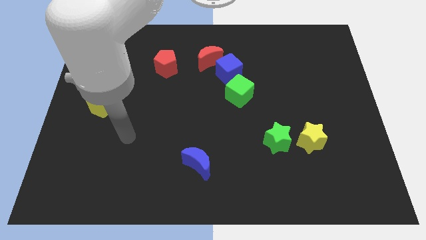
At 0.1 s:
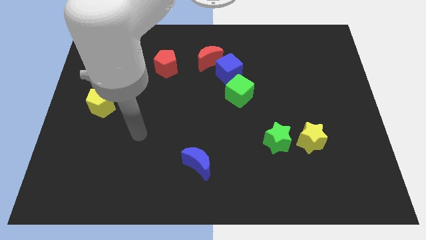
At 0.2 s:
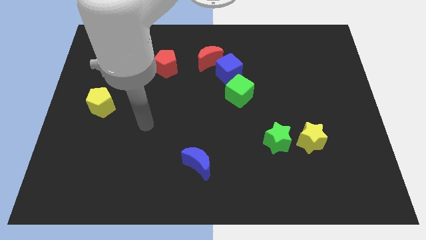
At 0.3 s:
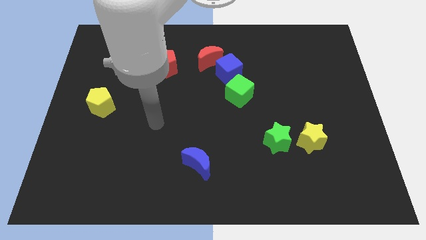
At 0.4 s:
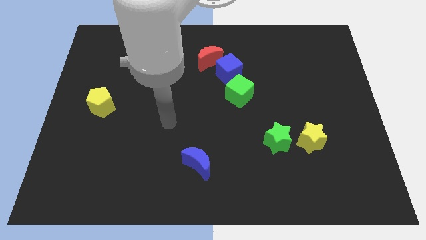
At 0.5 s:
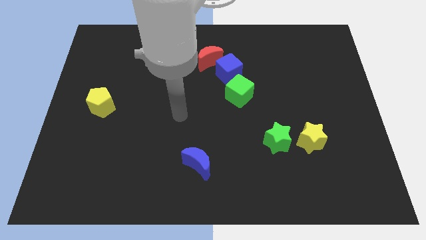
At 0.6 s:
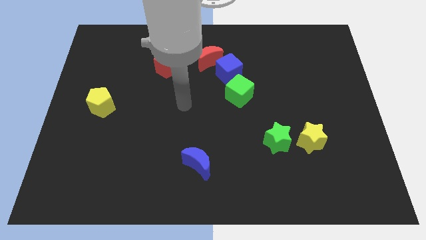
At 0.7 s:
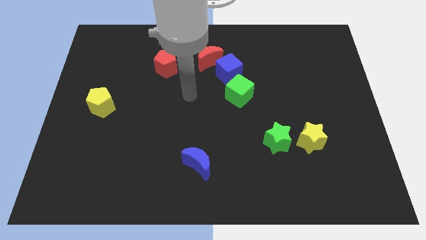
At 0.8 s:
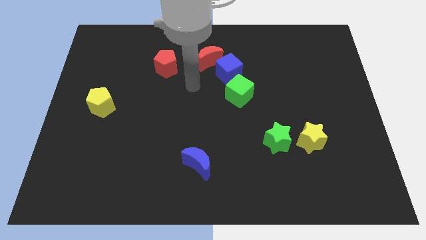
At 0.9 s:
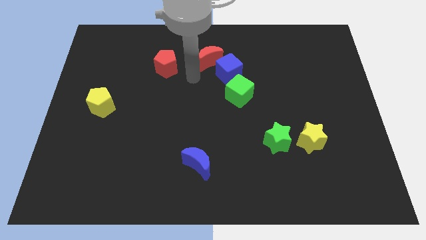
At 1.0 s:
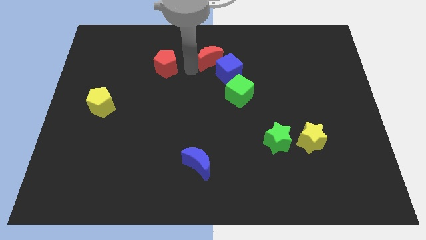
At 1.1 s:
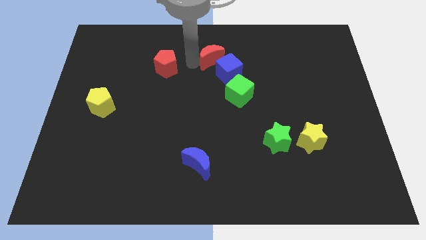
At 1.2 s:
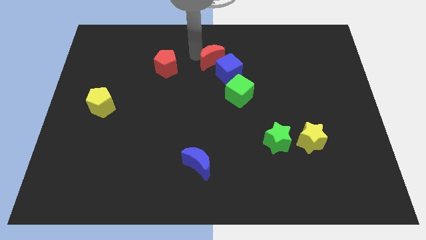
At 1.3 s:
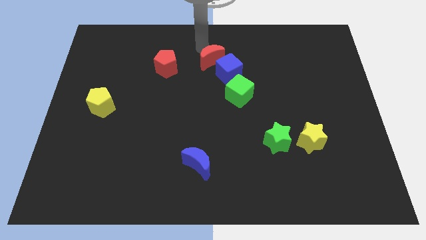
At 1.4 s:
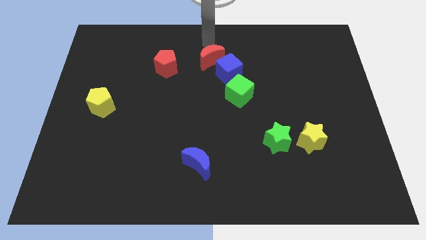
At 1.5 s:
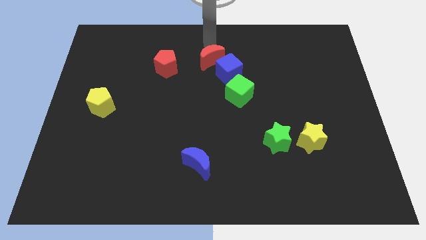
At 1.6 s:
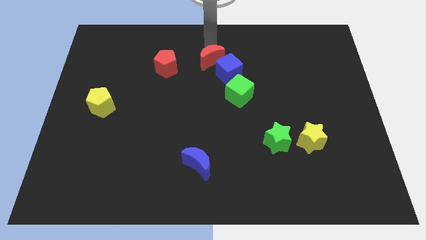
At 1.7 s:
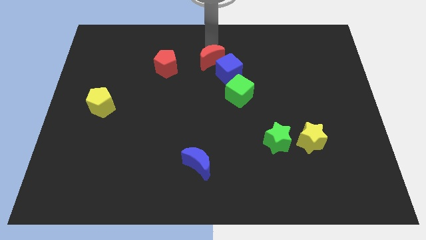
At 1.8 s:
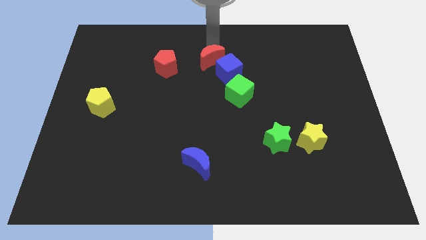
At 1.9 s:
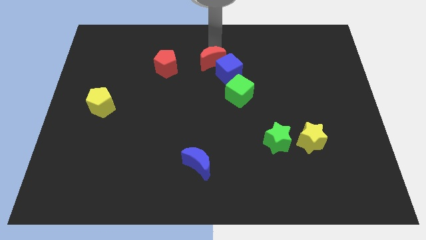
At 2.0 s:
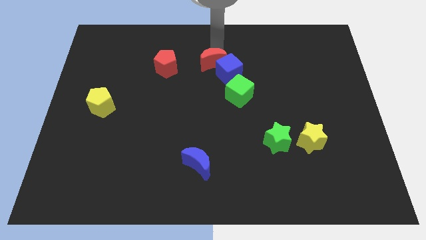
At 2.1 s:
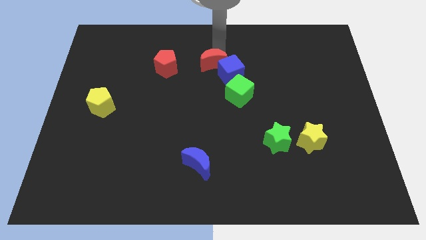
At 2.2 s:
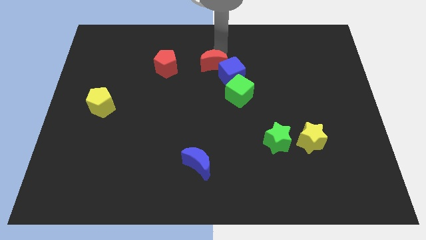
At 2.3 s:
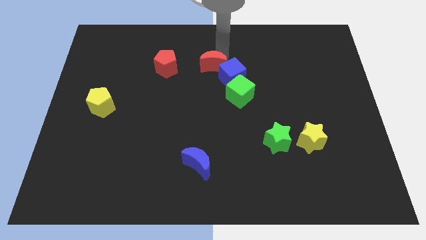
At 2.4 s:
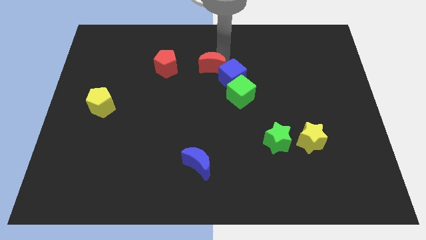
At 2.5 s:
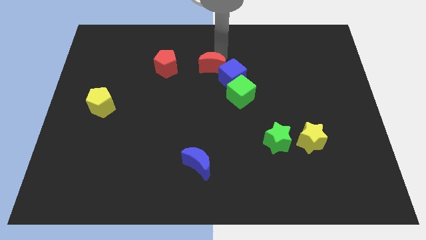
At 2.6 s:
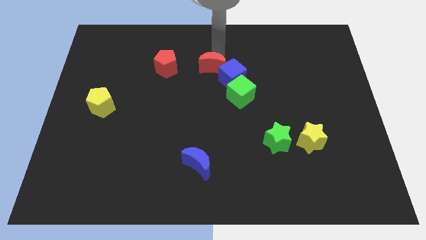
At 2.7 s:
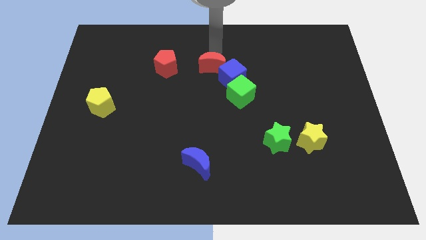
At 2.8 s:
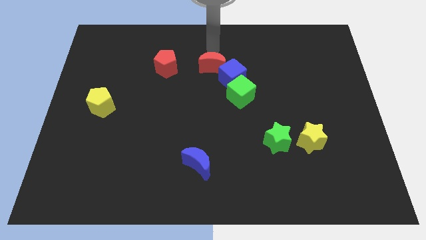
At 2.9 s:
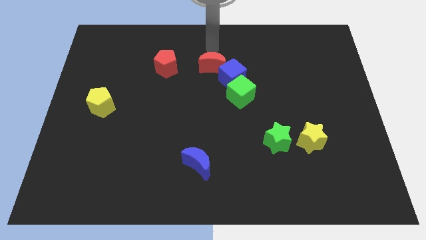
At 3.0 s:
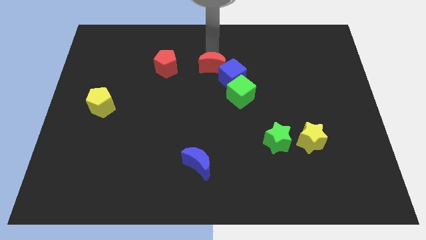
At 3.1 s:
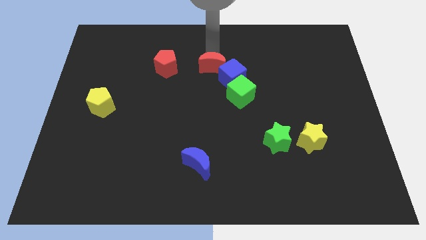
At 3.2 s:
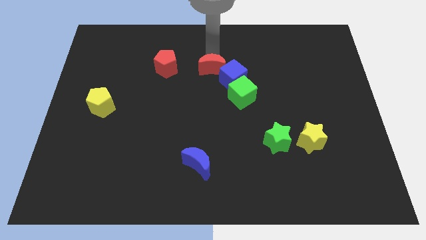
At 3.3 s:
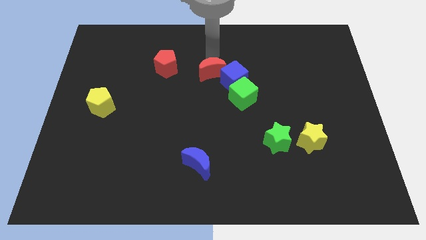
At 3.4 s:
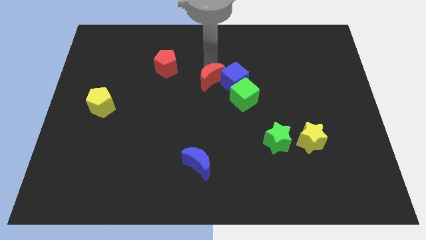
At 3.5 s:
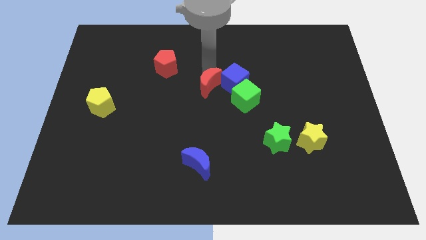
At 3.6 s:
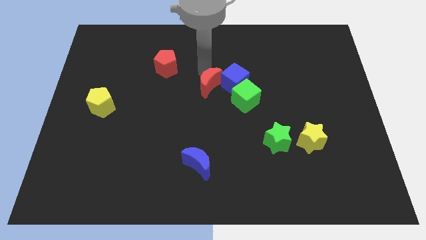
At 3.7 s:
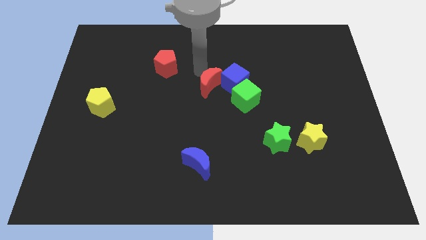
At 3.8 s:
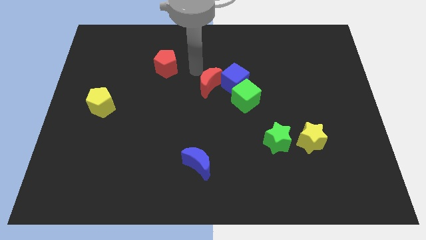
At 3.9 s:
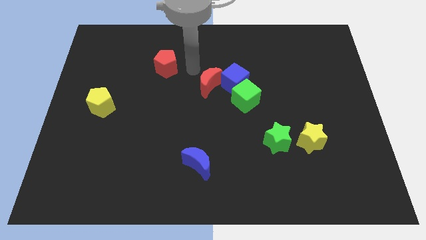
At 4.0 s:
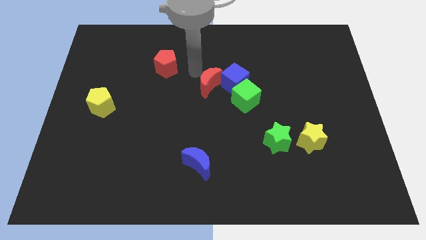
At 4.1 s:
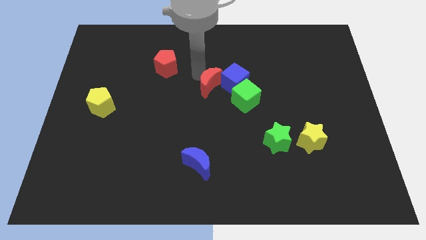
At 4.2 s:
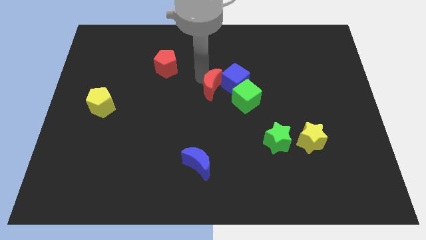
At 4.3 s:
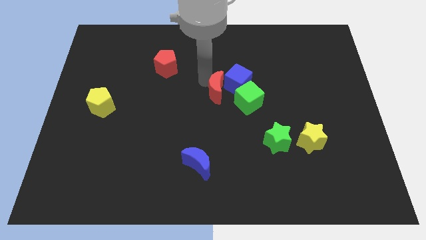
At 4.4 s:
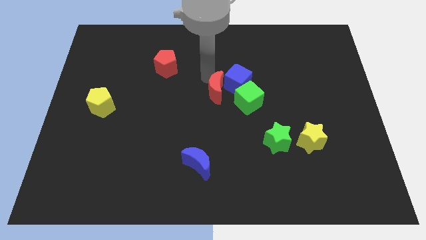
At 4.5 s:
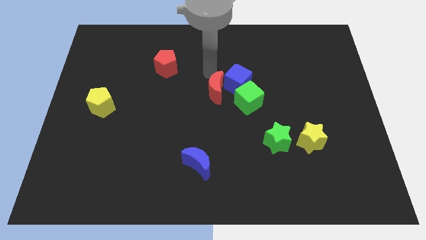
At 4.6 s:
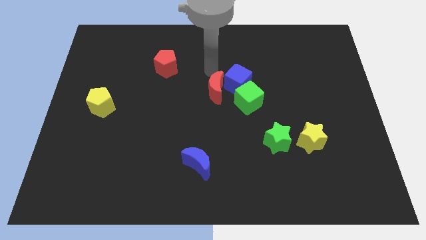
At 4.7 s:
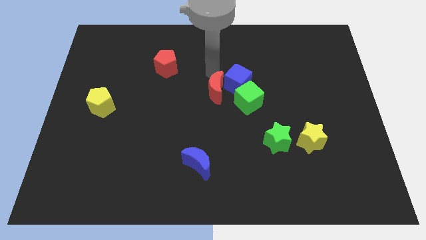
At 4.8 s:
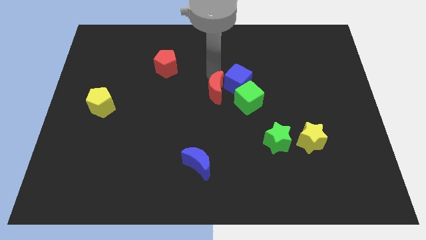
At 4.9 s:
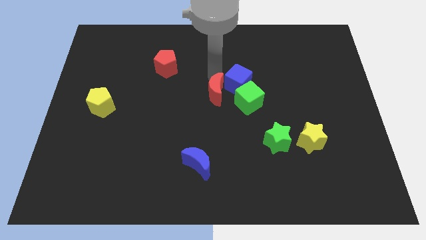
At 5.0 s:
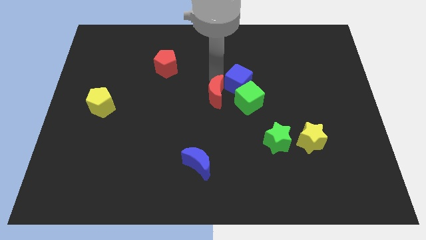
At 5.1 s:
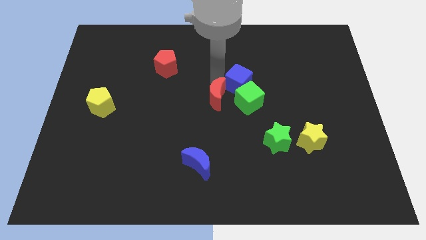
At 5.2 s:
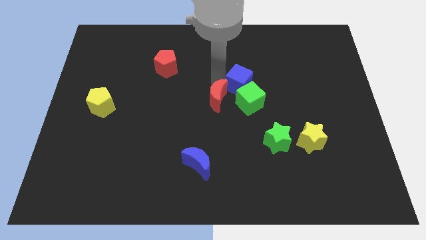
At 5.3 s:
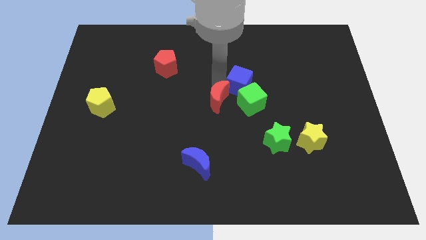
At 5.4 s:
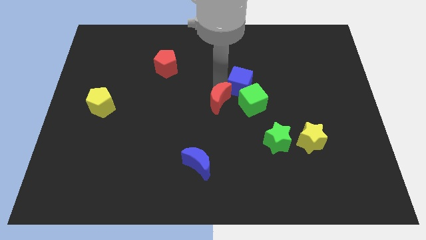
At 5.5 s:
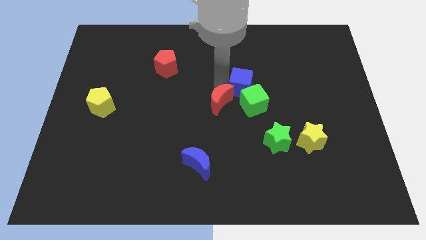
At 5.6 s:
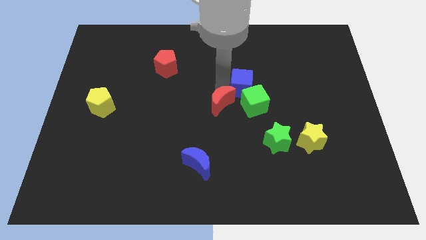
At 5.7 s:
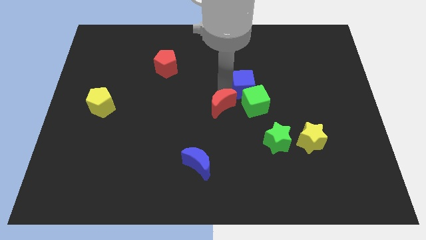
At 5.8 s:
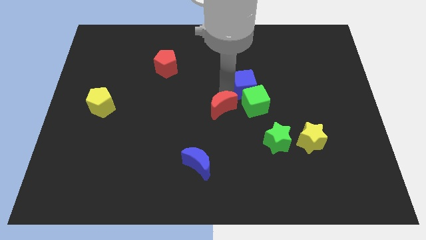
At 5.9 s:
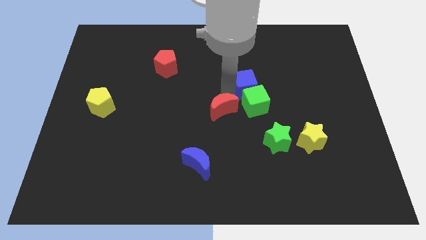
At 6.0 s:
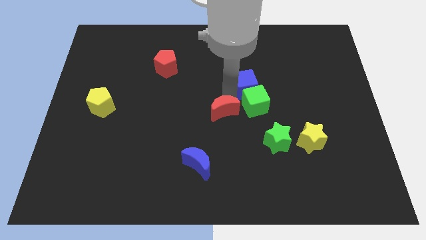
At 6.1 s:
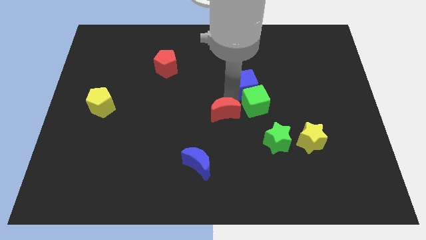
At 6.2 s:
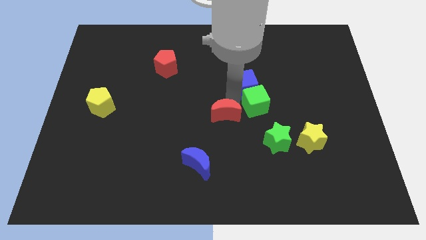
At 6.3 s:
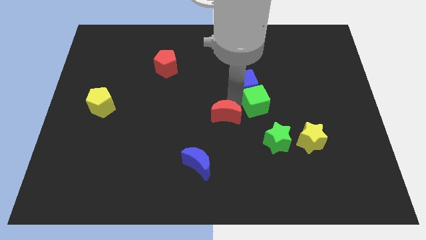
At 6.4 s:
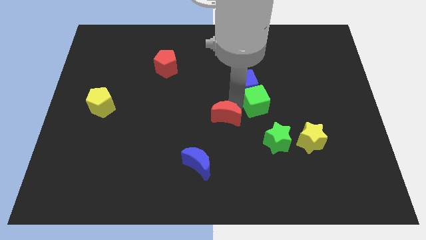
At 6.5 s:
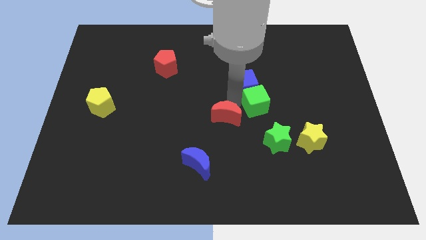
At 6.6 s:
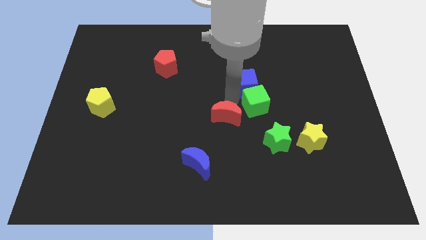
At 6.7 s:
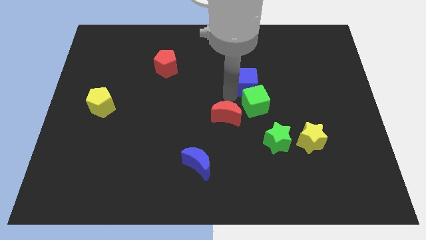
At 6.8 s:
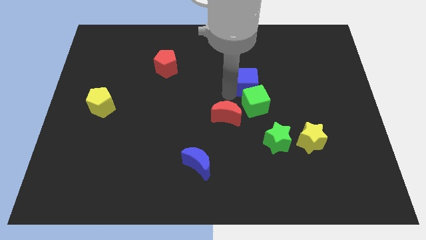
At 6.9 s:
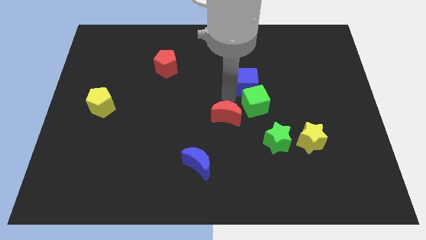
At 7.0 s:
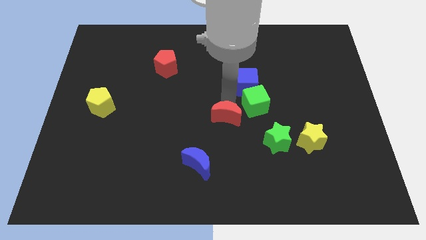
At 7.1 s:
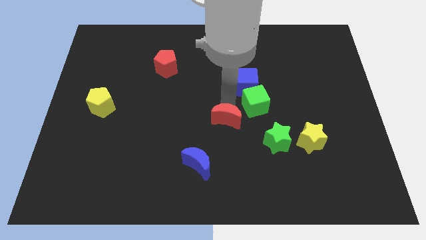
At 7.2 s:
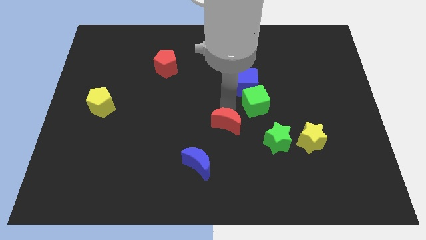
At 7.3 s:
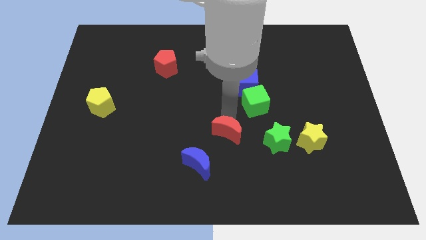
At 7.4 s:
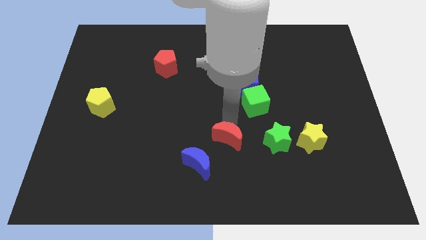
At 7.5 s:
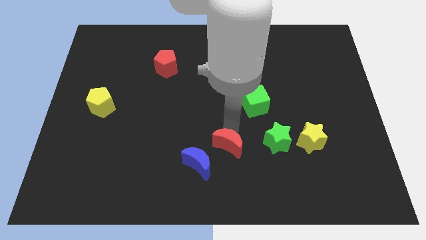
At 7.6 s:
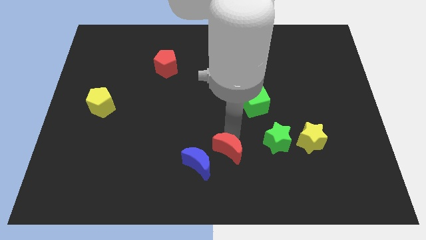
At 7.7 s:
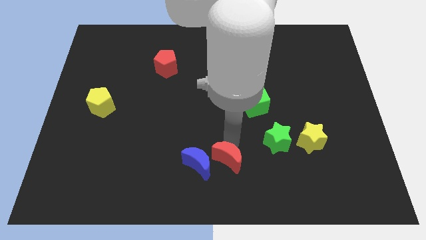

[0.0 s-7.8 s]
push the red moon to the bottom
